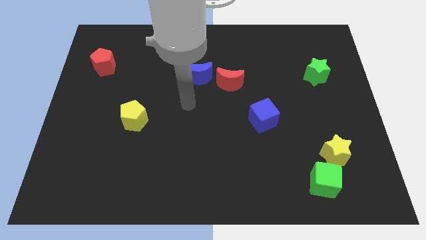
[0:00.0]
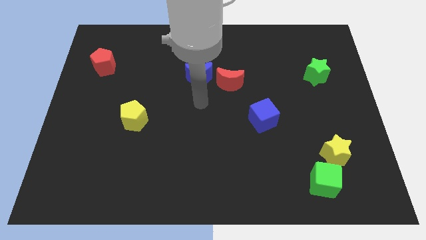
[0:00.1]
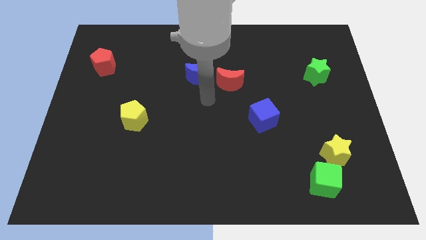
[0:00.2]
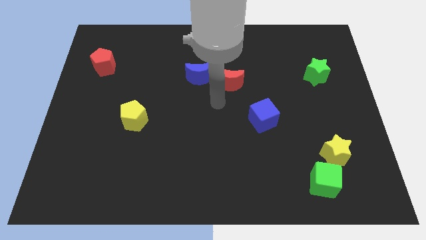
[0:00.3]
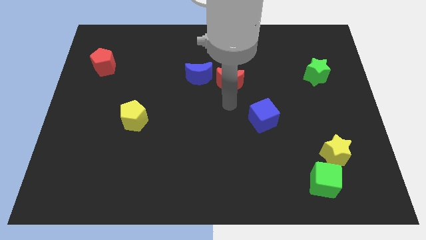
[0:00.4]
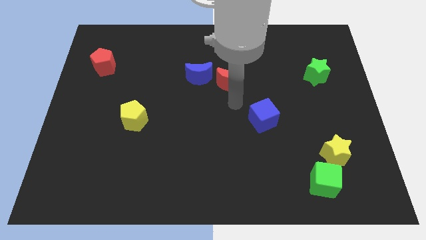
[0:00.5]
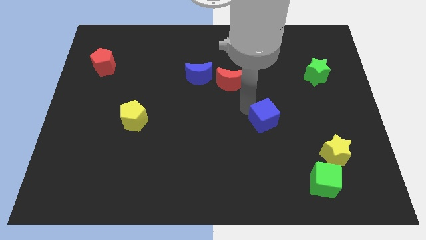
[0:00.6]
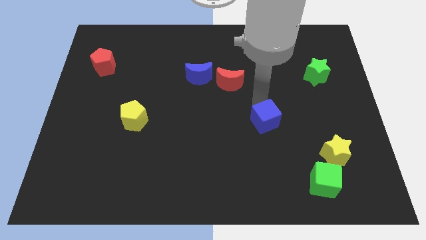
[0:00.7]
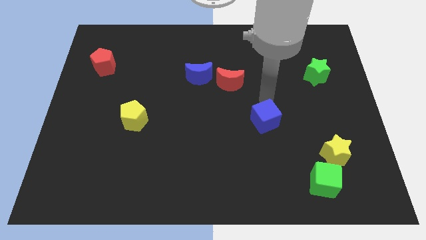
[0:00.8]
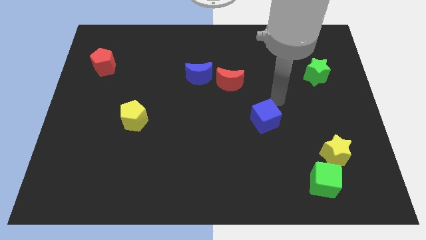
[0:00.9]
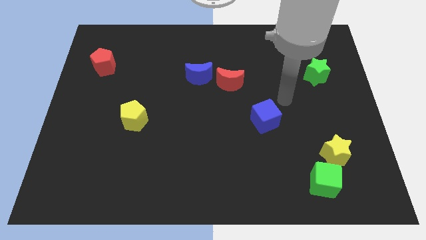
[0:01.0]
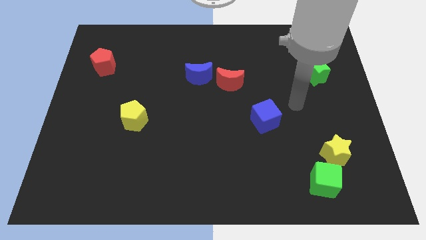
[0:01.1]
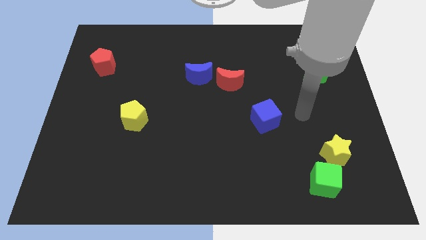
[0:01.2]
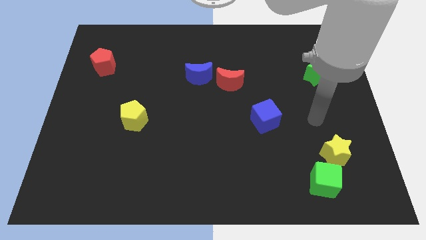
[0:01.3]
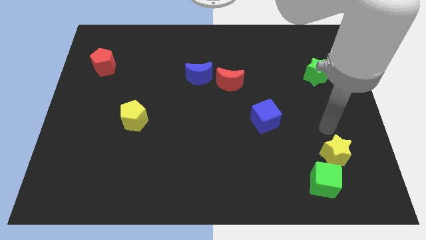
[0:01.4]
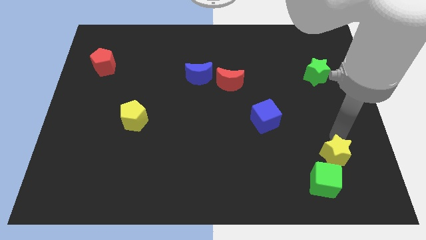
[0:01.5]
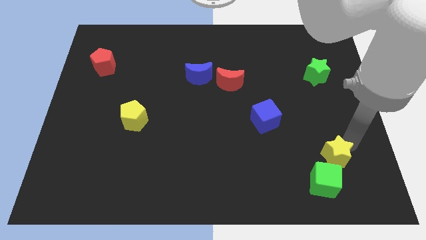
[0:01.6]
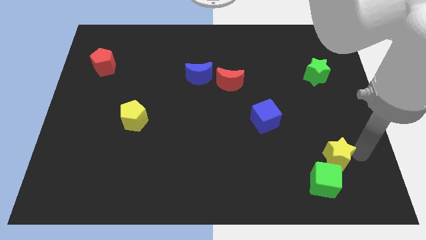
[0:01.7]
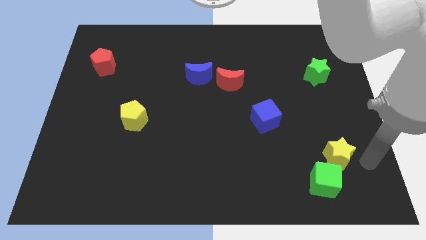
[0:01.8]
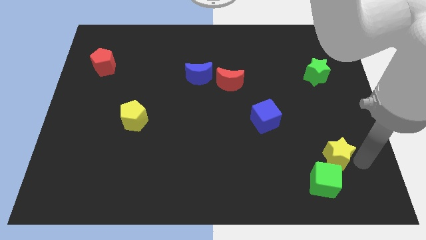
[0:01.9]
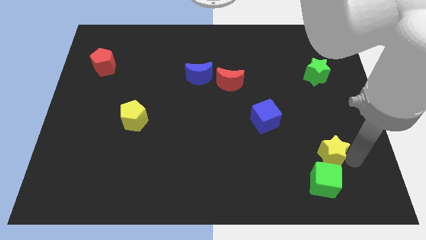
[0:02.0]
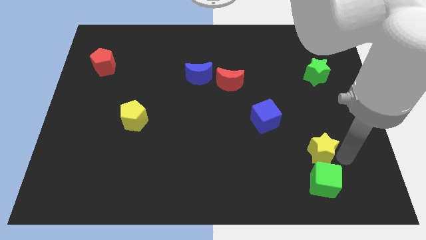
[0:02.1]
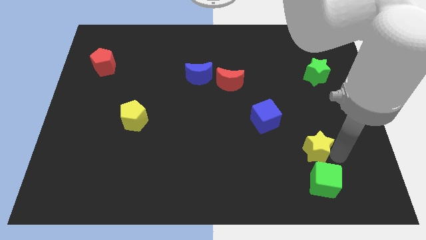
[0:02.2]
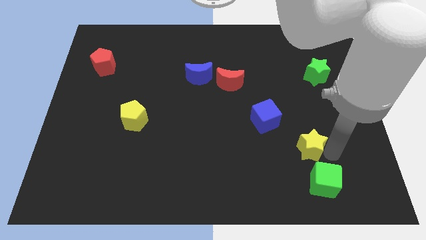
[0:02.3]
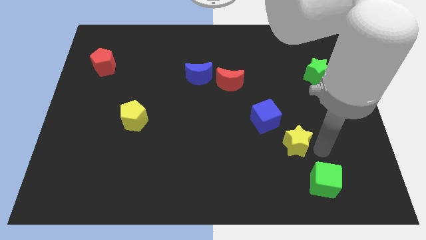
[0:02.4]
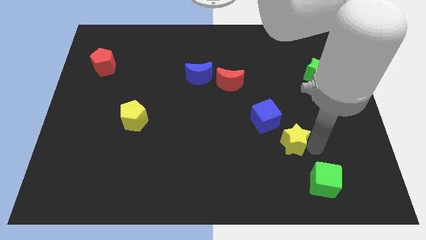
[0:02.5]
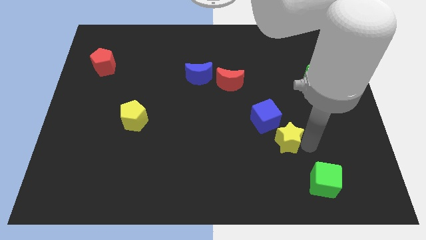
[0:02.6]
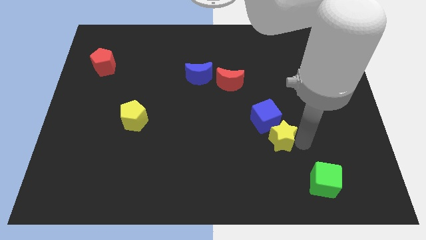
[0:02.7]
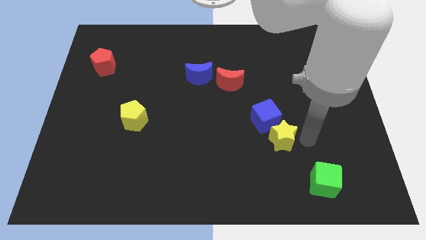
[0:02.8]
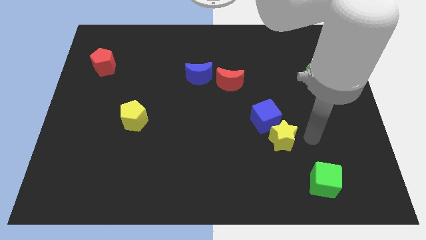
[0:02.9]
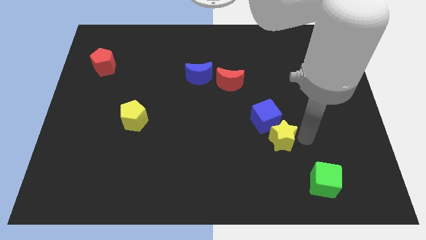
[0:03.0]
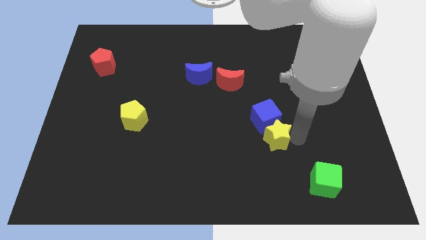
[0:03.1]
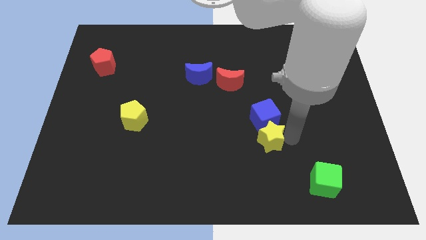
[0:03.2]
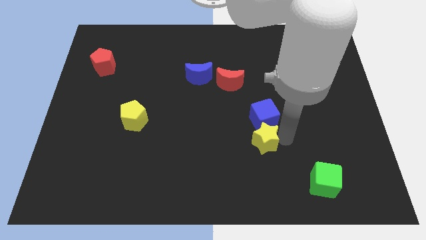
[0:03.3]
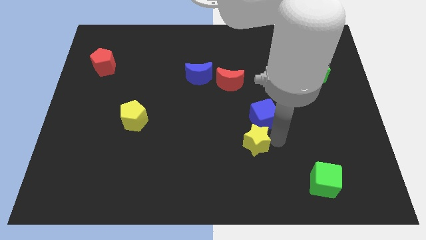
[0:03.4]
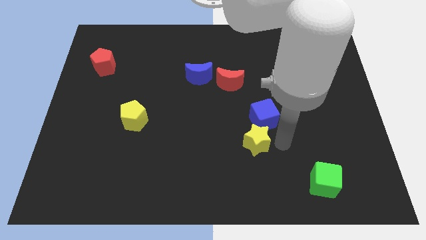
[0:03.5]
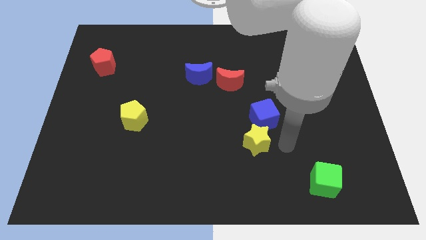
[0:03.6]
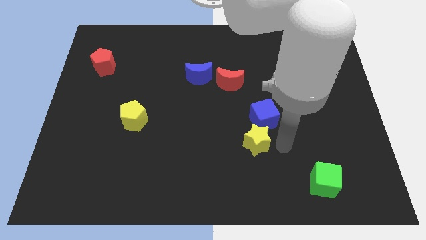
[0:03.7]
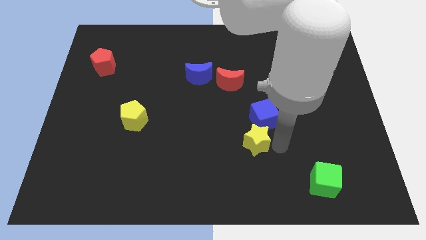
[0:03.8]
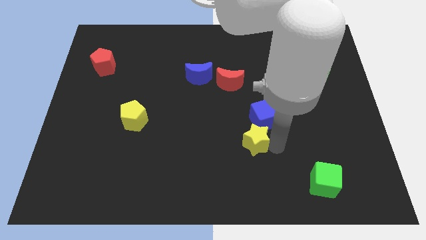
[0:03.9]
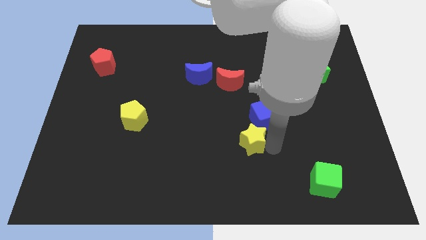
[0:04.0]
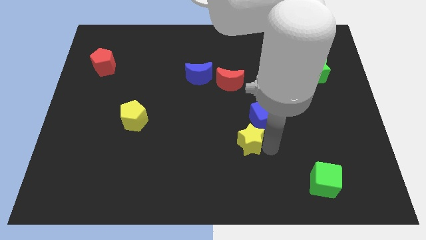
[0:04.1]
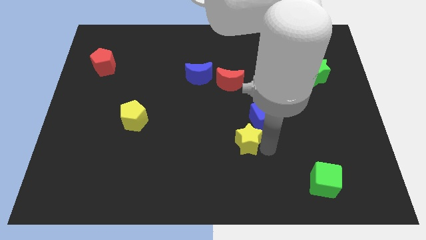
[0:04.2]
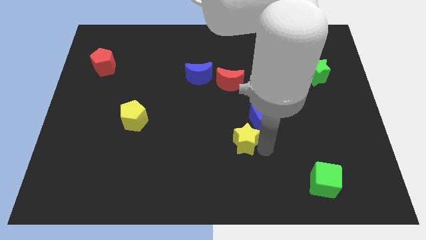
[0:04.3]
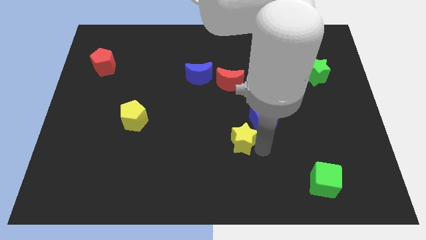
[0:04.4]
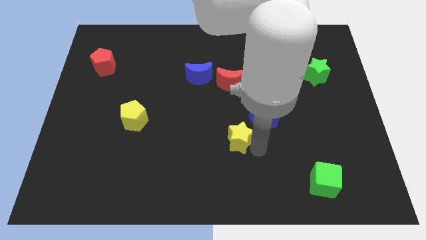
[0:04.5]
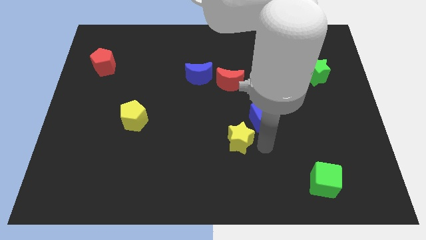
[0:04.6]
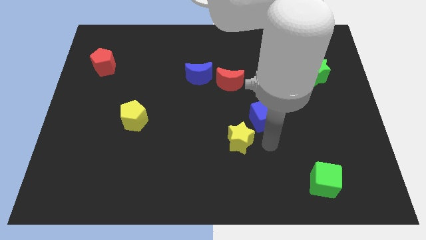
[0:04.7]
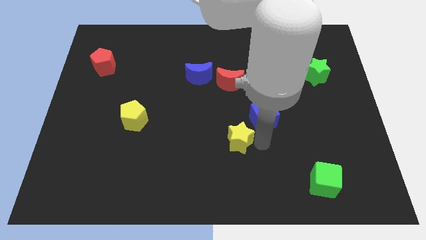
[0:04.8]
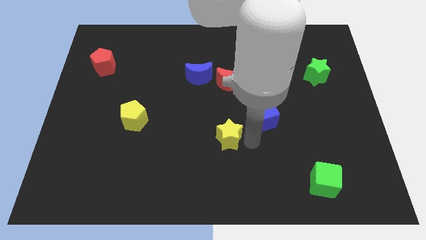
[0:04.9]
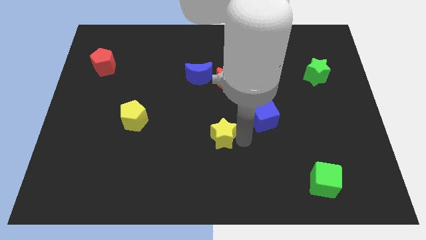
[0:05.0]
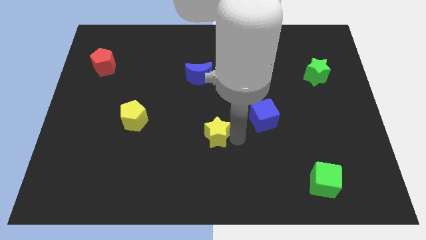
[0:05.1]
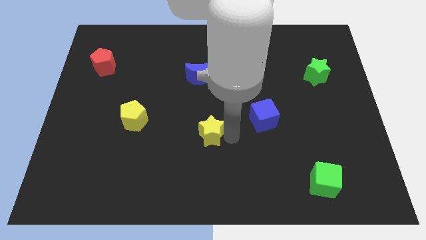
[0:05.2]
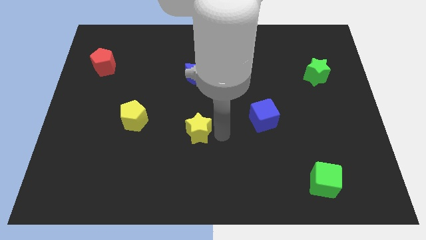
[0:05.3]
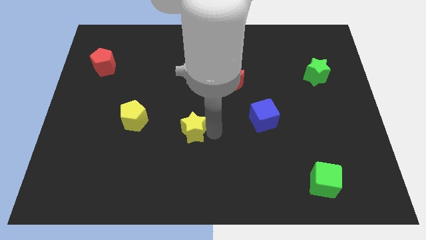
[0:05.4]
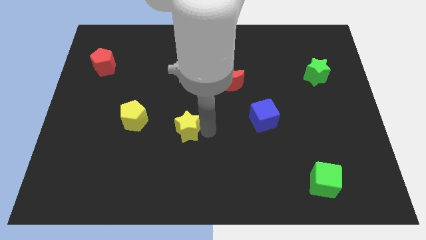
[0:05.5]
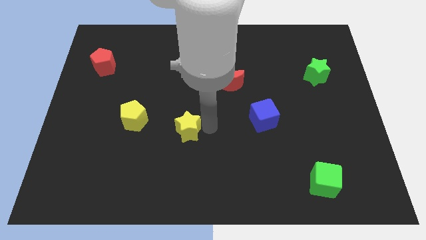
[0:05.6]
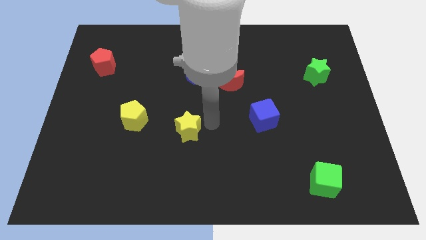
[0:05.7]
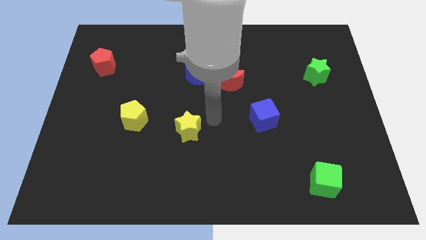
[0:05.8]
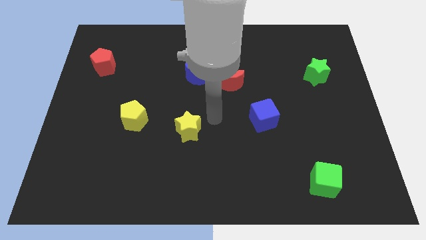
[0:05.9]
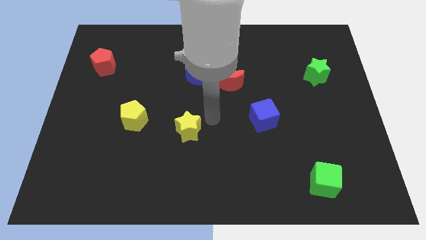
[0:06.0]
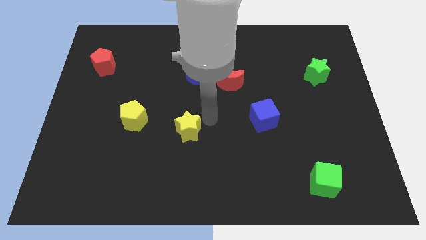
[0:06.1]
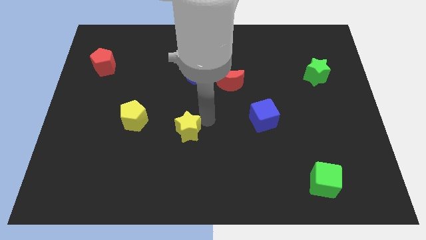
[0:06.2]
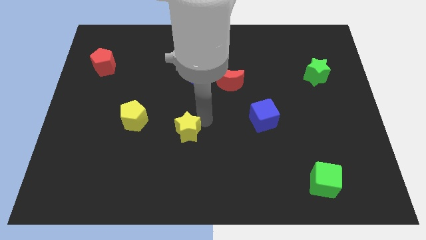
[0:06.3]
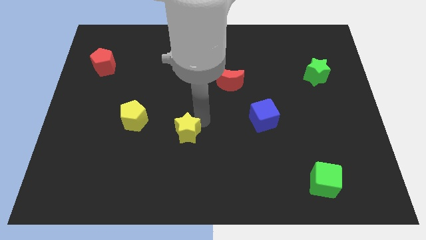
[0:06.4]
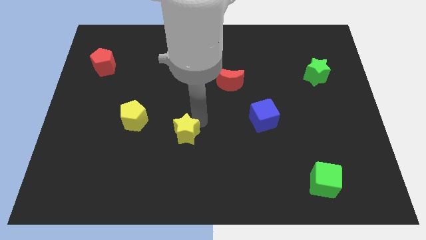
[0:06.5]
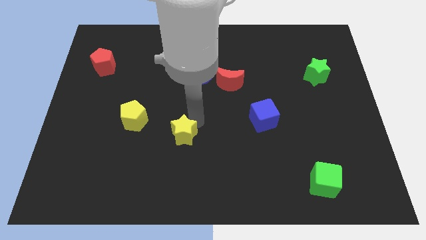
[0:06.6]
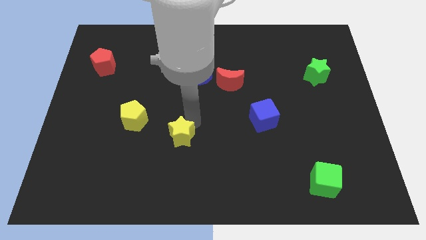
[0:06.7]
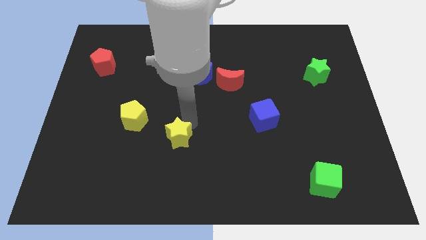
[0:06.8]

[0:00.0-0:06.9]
push the yellow star to the bottom right side of the yellow pentagon
